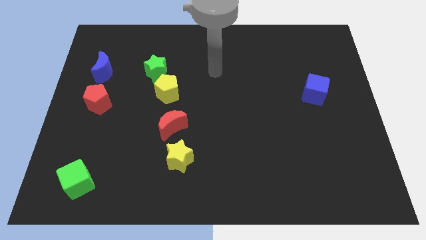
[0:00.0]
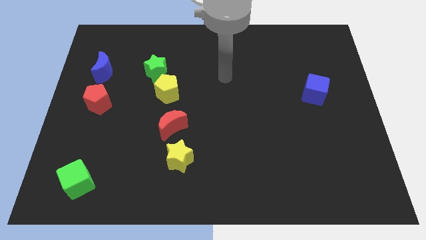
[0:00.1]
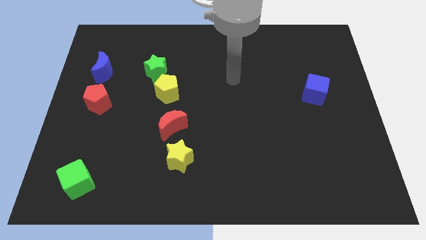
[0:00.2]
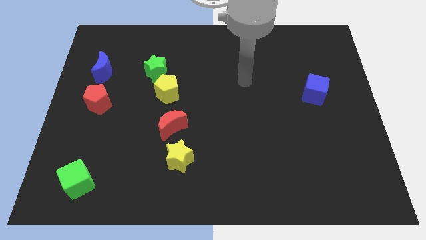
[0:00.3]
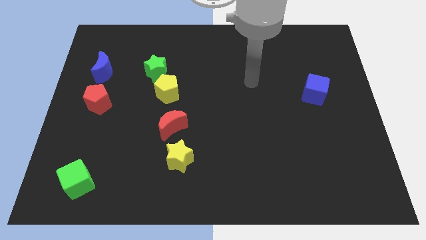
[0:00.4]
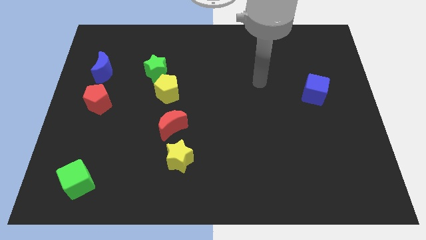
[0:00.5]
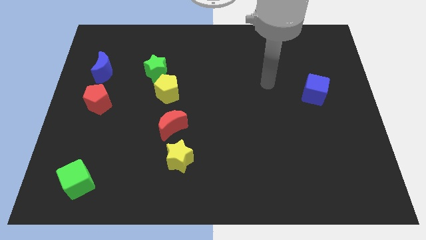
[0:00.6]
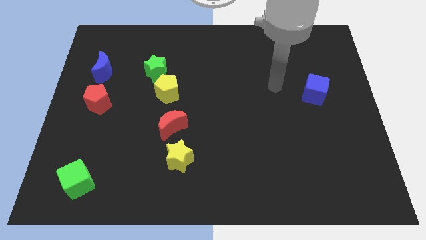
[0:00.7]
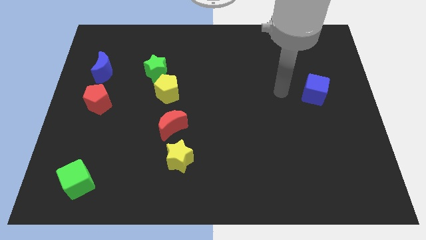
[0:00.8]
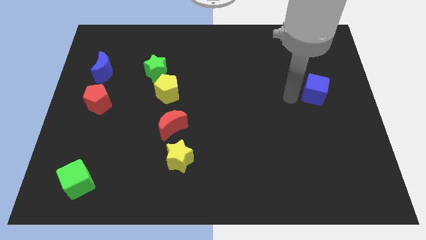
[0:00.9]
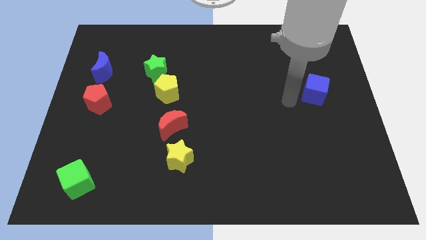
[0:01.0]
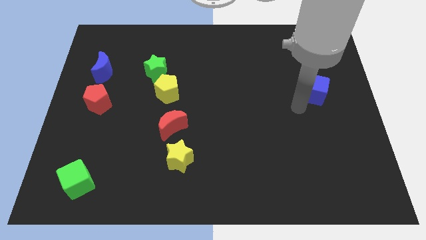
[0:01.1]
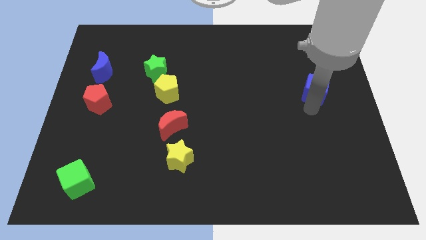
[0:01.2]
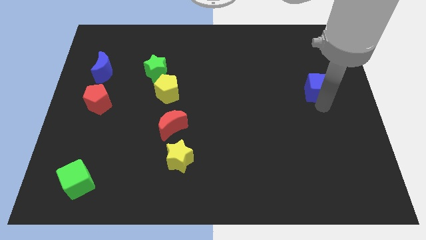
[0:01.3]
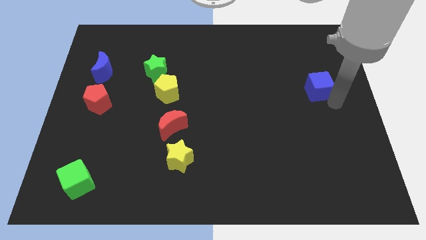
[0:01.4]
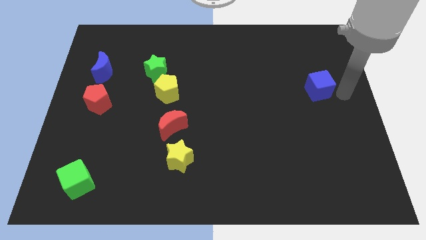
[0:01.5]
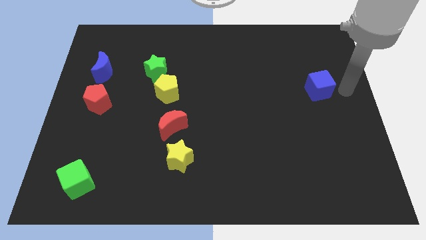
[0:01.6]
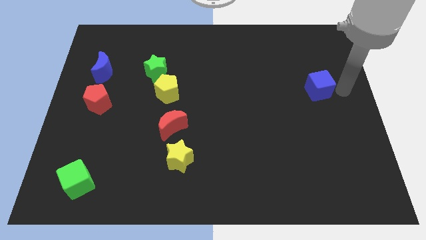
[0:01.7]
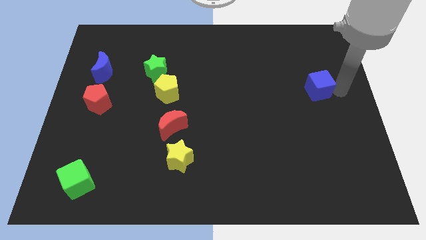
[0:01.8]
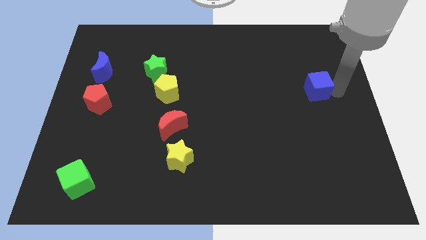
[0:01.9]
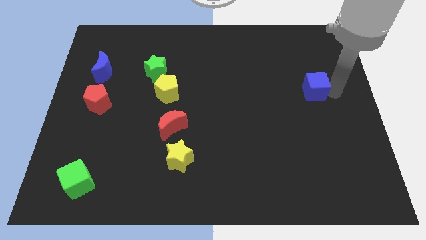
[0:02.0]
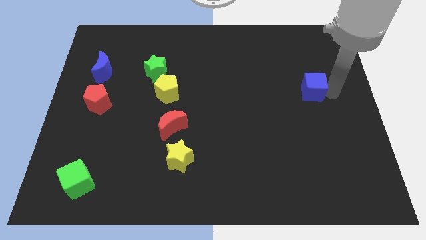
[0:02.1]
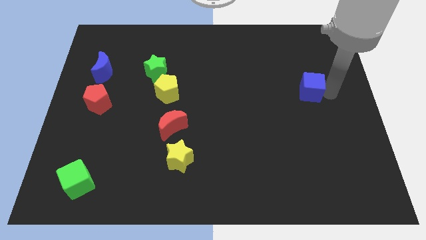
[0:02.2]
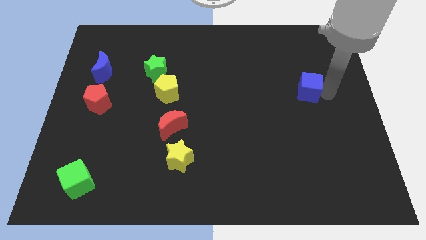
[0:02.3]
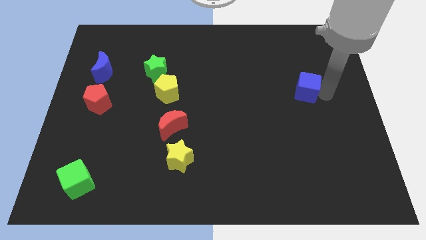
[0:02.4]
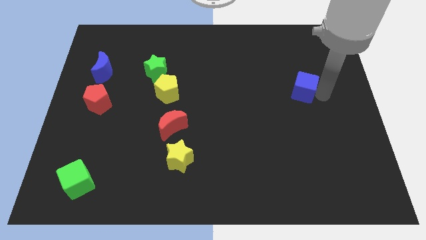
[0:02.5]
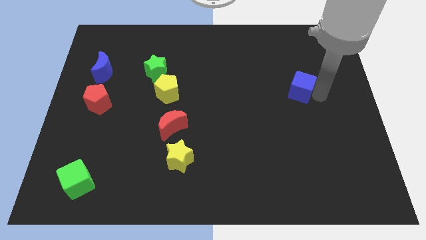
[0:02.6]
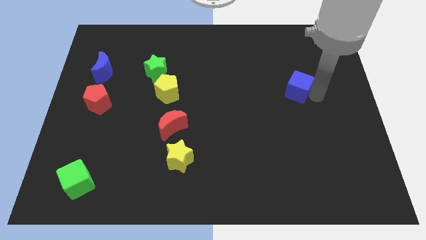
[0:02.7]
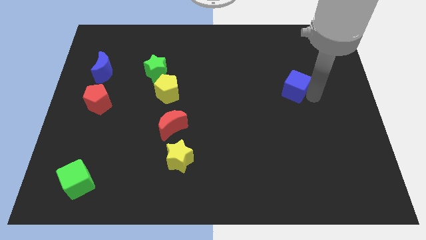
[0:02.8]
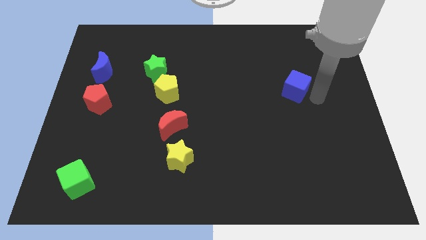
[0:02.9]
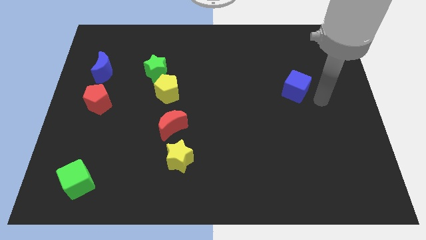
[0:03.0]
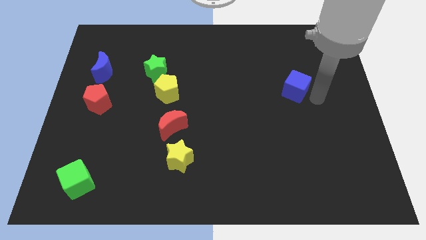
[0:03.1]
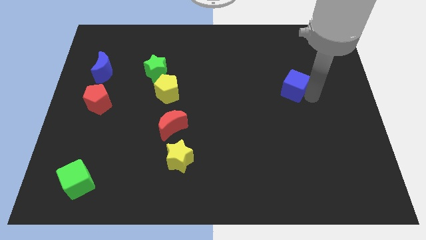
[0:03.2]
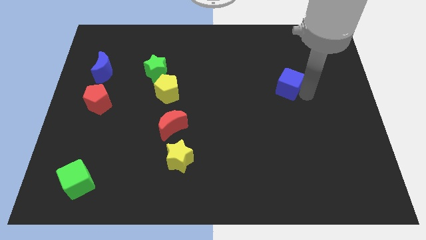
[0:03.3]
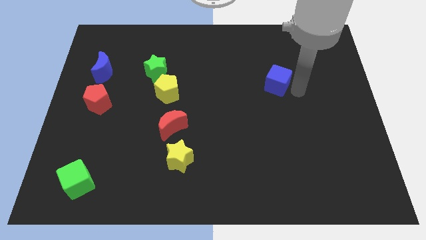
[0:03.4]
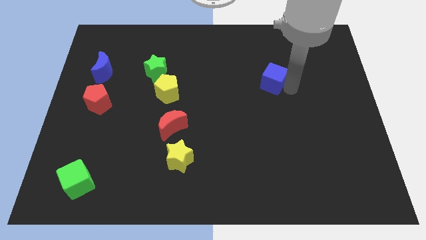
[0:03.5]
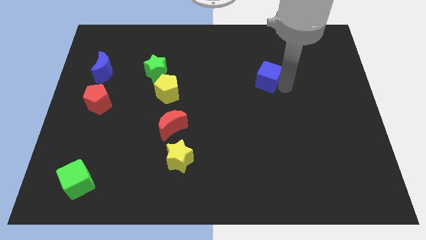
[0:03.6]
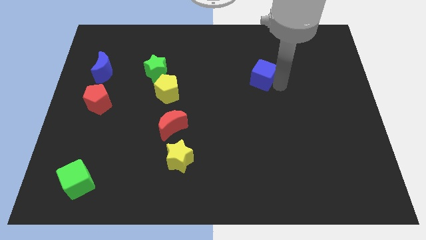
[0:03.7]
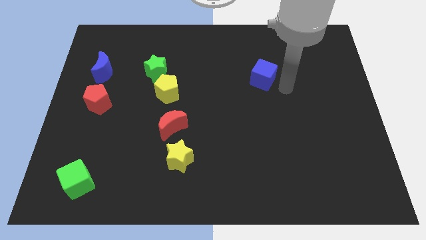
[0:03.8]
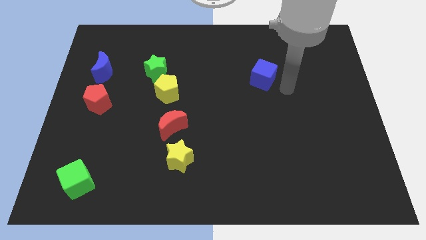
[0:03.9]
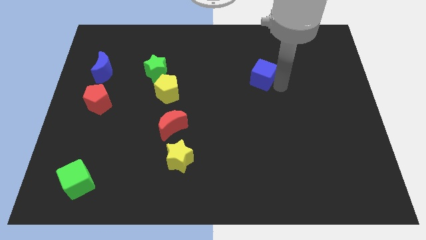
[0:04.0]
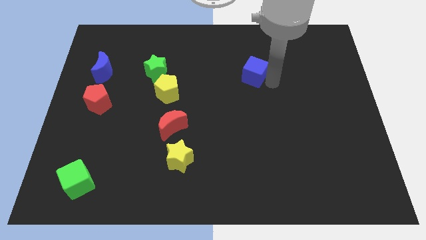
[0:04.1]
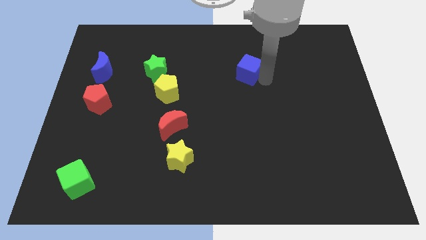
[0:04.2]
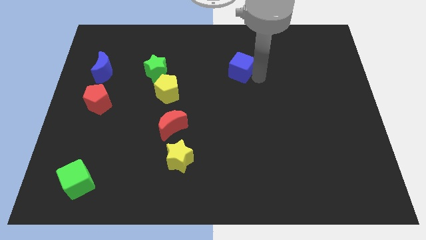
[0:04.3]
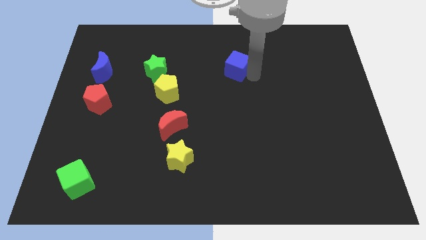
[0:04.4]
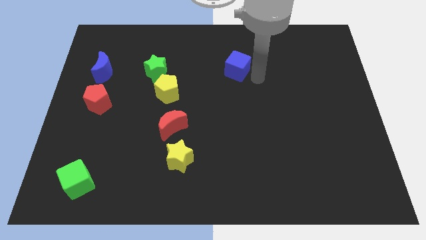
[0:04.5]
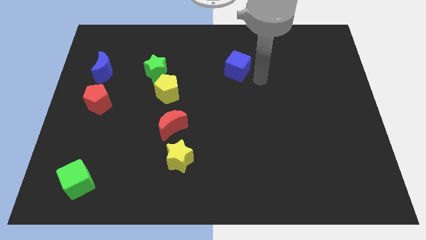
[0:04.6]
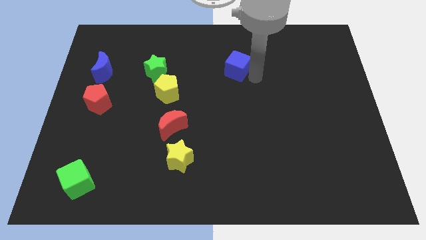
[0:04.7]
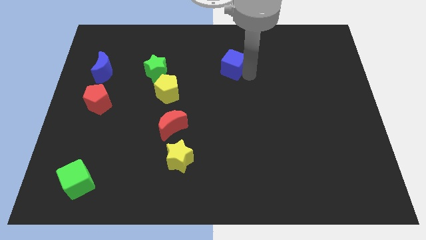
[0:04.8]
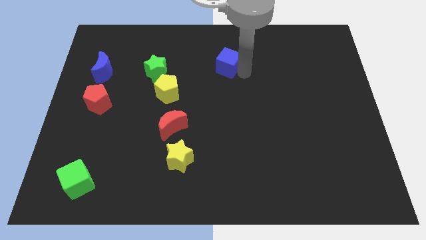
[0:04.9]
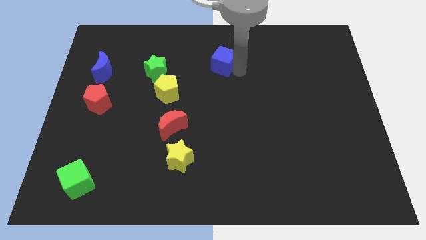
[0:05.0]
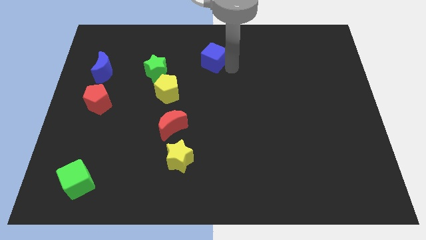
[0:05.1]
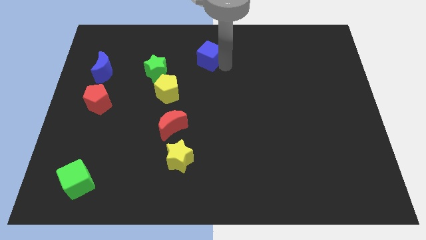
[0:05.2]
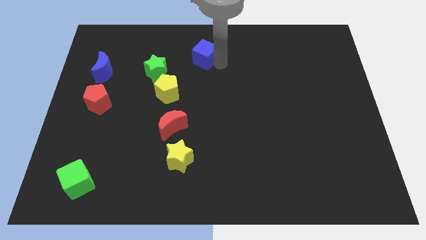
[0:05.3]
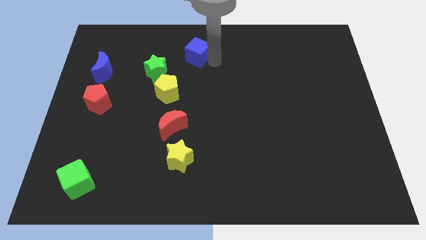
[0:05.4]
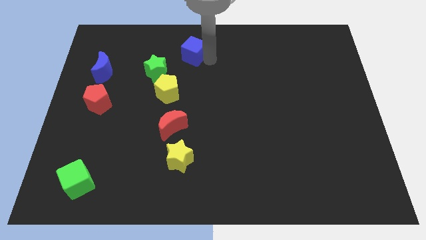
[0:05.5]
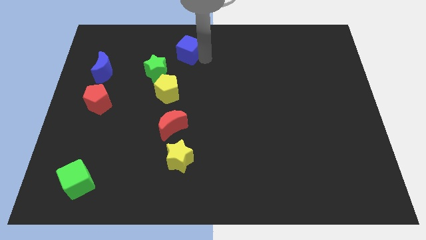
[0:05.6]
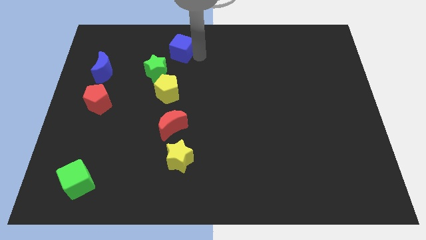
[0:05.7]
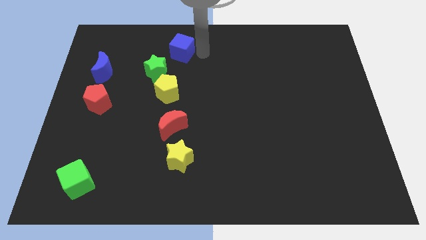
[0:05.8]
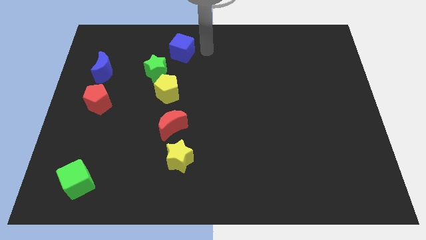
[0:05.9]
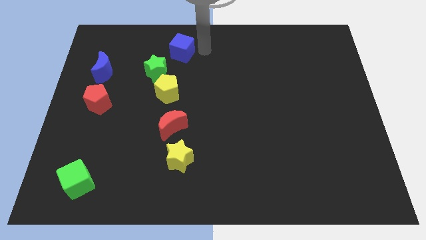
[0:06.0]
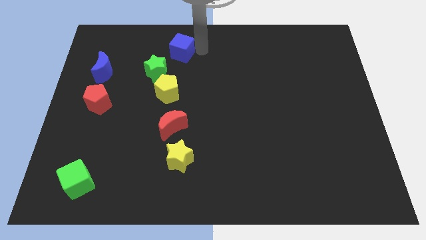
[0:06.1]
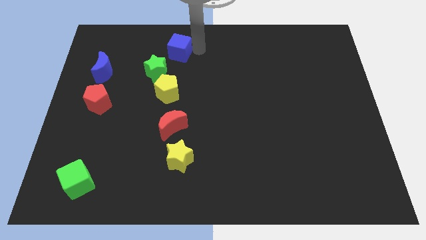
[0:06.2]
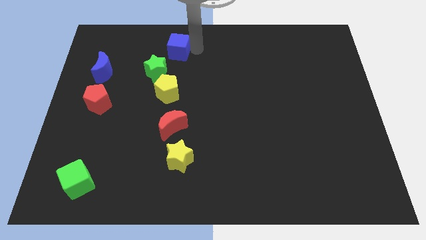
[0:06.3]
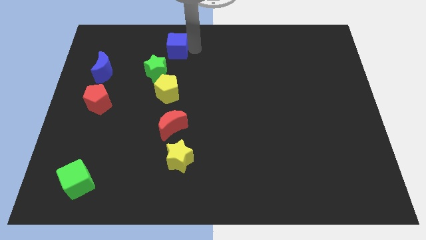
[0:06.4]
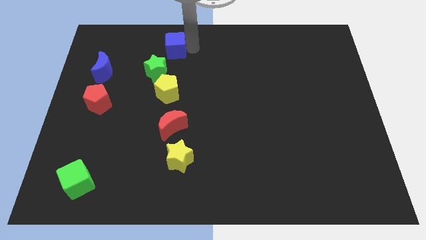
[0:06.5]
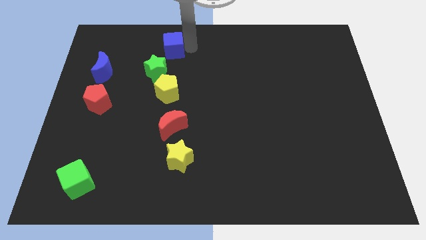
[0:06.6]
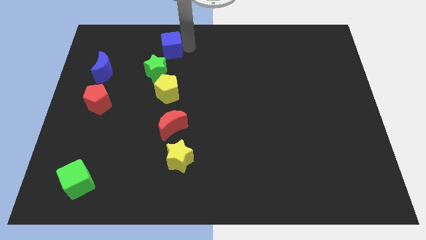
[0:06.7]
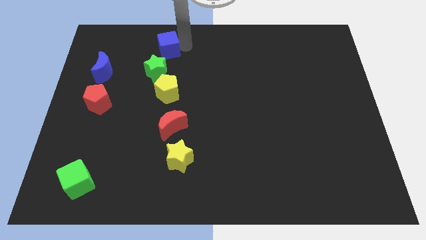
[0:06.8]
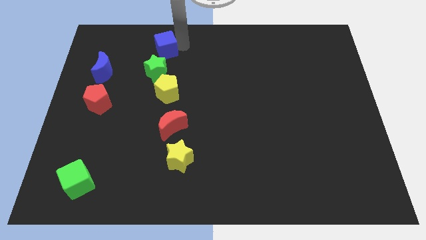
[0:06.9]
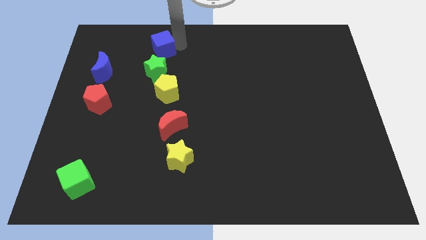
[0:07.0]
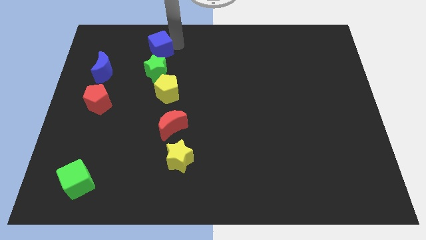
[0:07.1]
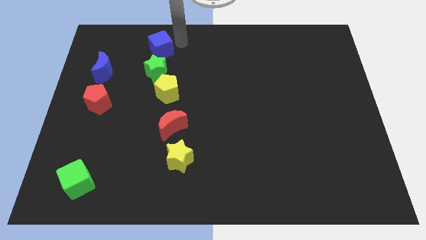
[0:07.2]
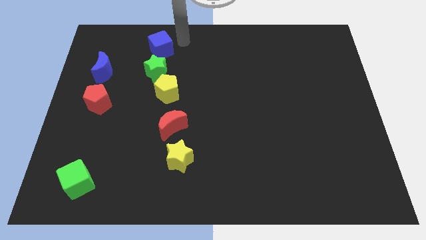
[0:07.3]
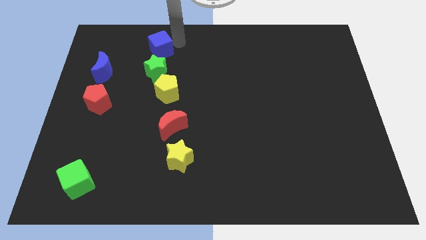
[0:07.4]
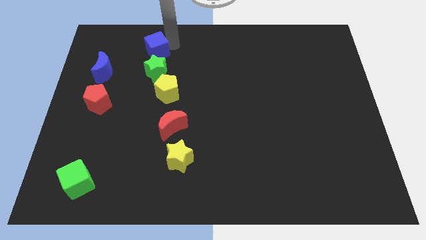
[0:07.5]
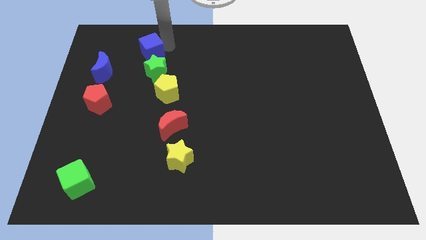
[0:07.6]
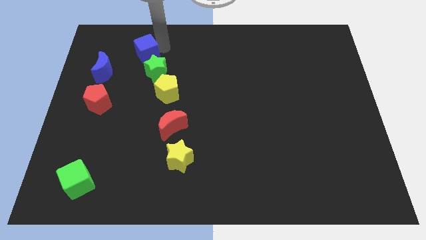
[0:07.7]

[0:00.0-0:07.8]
slide the blue cube to the top right side of the blue moon

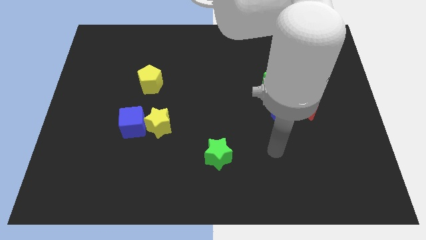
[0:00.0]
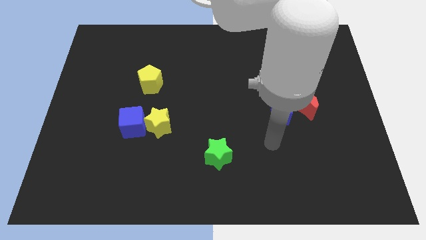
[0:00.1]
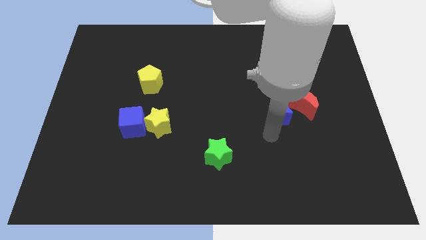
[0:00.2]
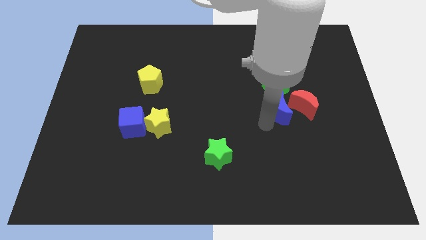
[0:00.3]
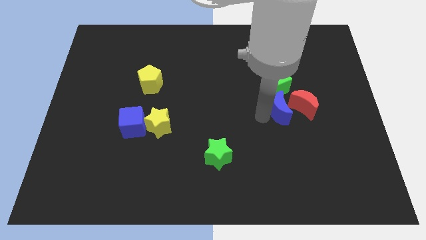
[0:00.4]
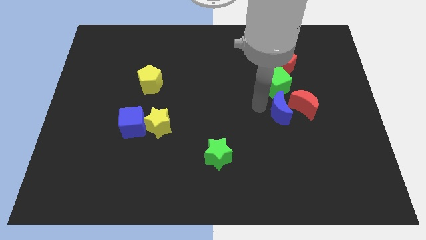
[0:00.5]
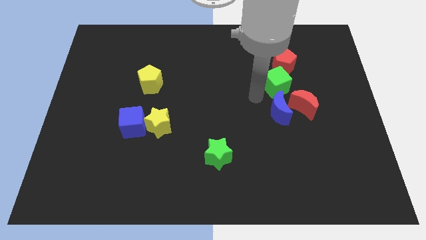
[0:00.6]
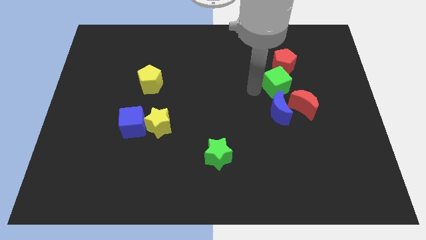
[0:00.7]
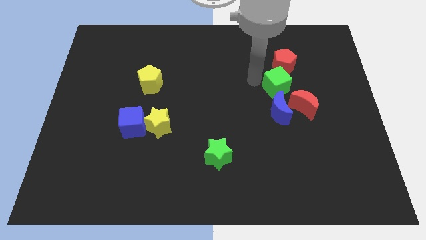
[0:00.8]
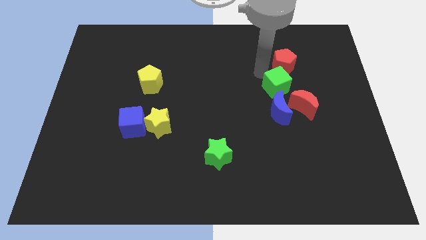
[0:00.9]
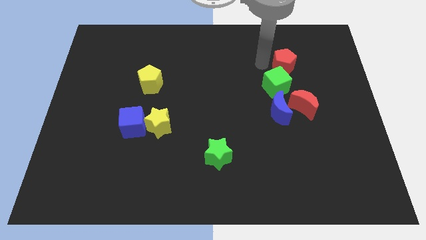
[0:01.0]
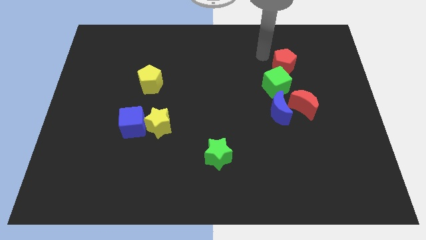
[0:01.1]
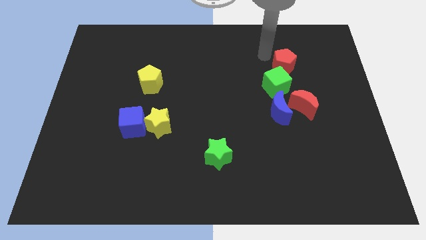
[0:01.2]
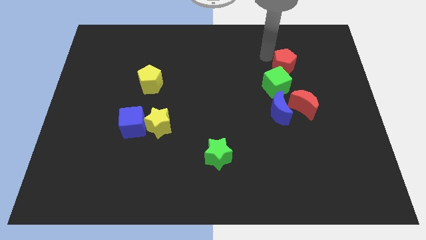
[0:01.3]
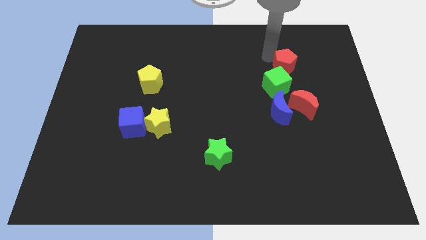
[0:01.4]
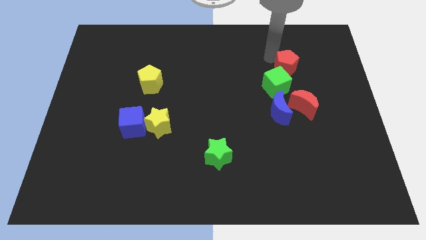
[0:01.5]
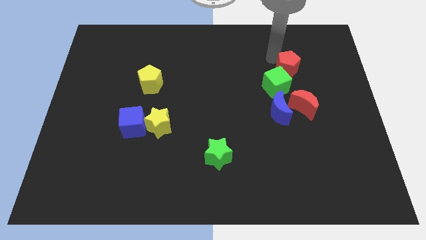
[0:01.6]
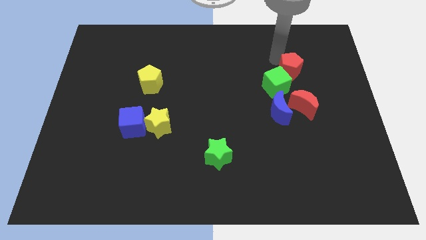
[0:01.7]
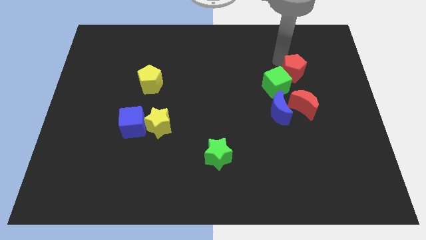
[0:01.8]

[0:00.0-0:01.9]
put the red pentagon to the right of the green cube
